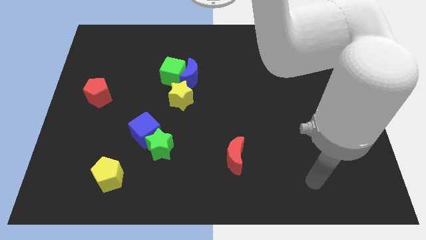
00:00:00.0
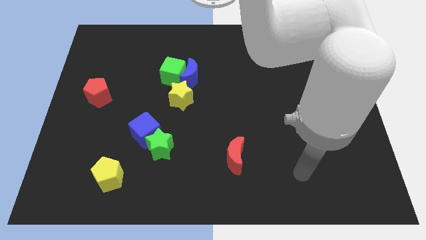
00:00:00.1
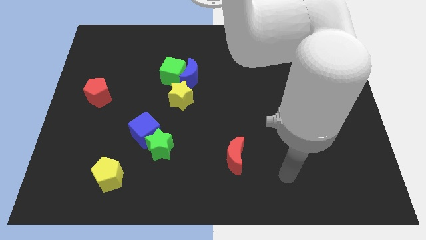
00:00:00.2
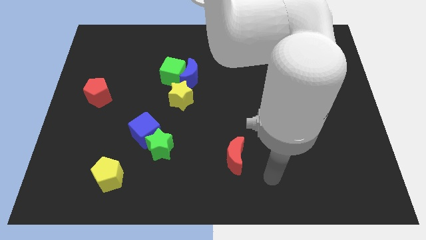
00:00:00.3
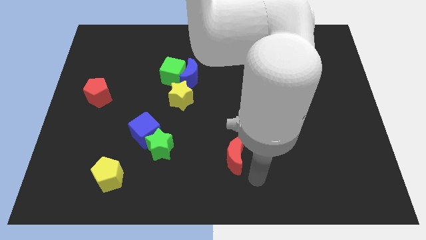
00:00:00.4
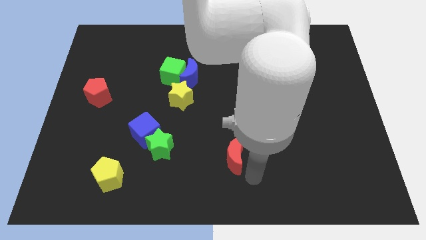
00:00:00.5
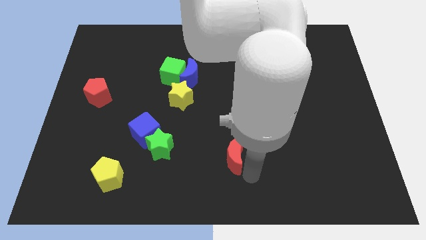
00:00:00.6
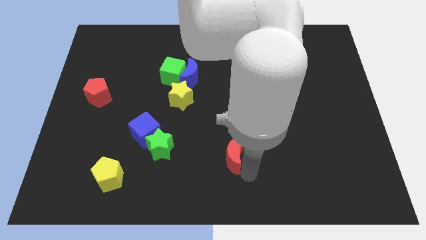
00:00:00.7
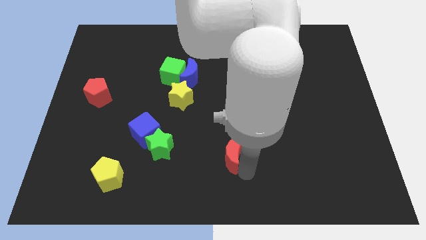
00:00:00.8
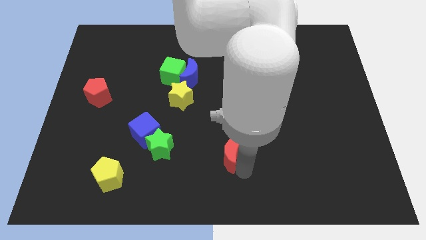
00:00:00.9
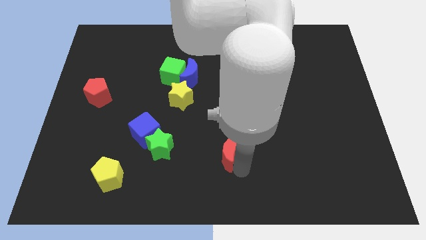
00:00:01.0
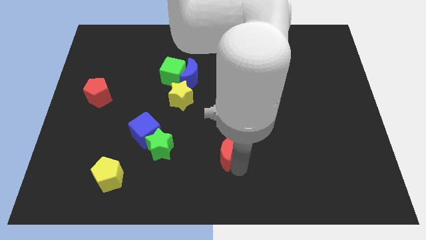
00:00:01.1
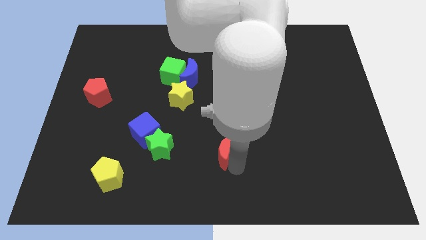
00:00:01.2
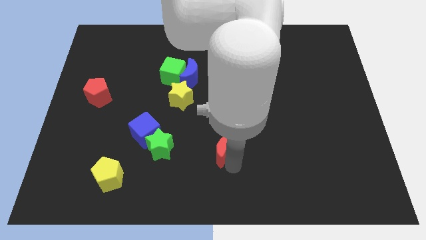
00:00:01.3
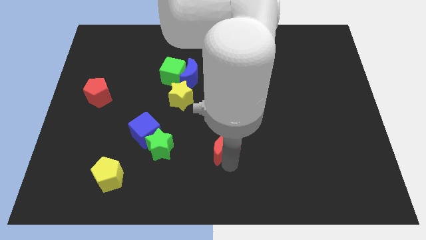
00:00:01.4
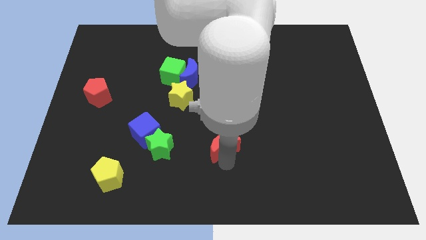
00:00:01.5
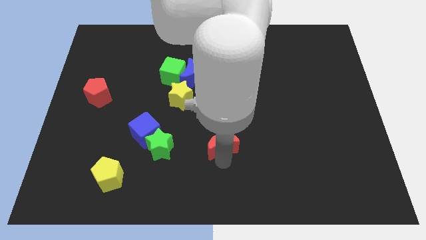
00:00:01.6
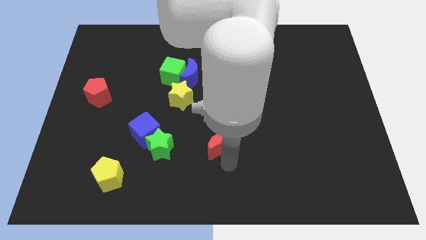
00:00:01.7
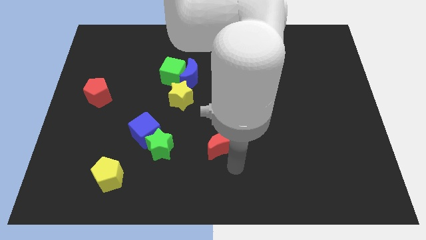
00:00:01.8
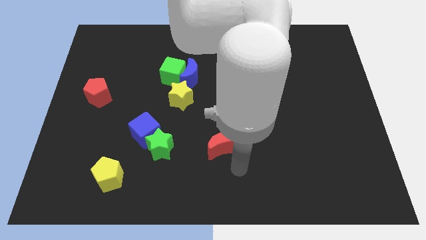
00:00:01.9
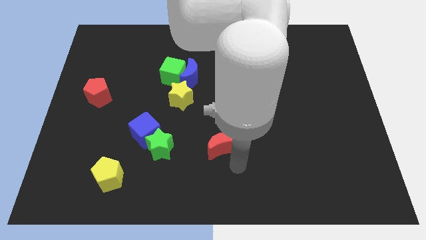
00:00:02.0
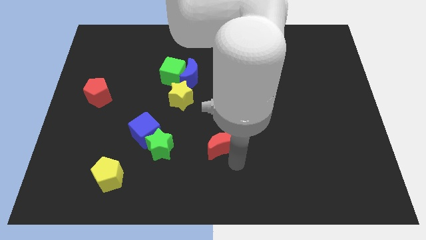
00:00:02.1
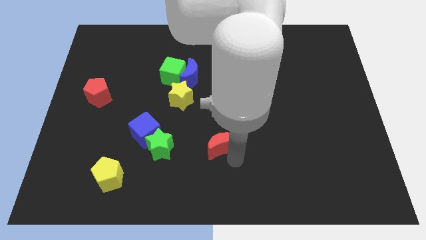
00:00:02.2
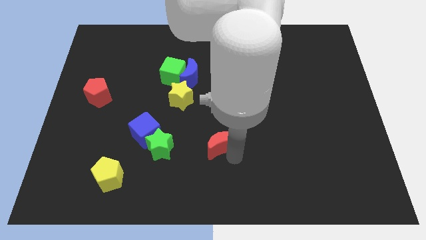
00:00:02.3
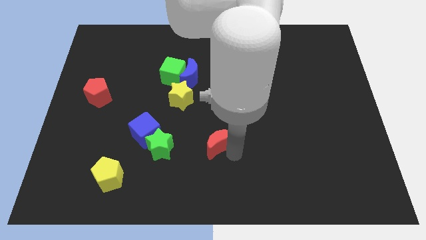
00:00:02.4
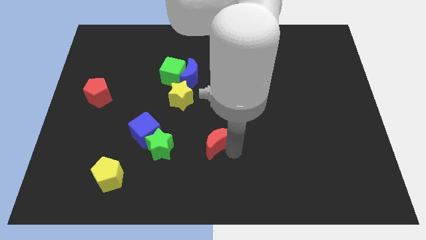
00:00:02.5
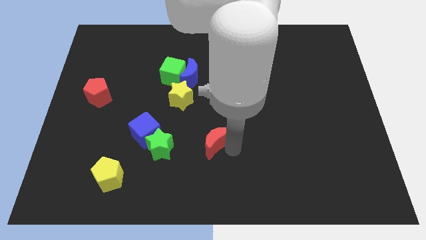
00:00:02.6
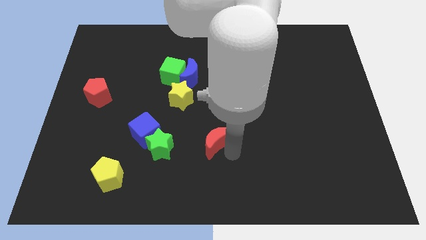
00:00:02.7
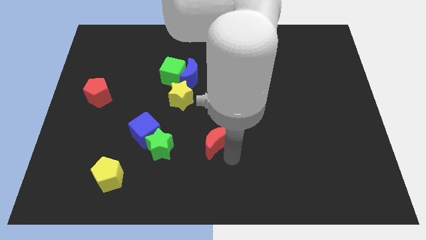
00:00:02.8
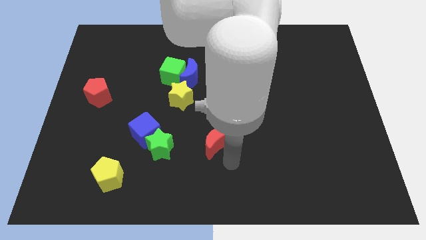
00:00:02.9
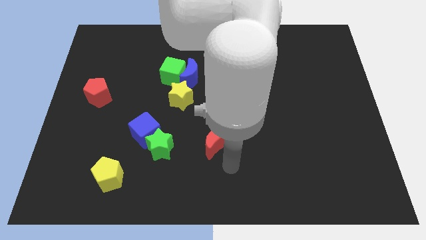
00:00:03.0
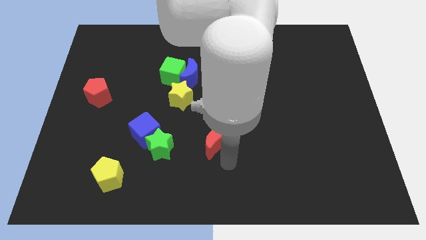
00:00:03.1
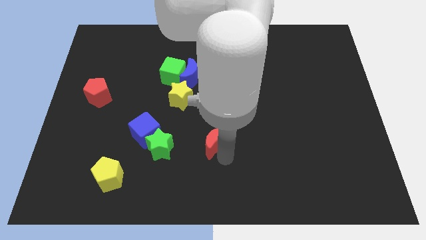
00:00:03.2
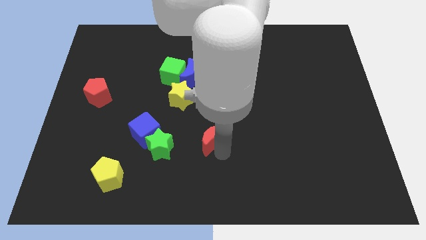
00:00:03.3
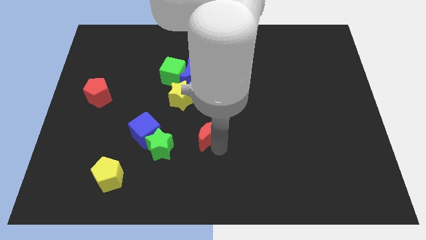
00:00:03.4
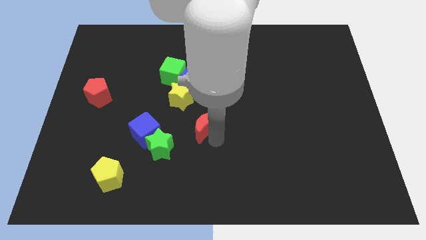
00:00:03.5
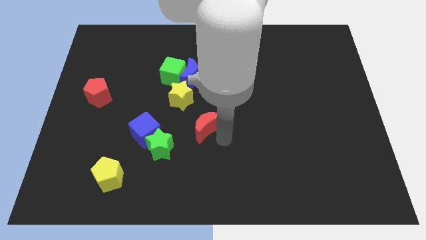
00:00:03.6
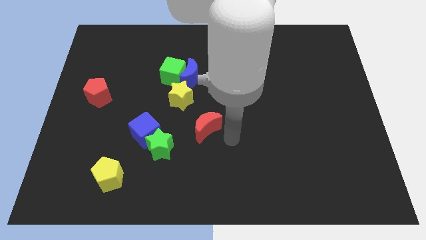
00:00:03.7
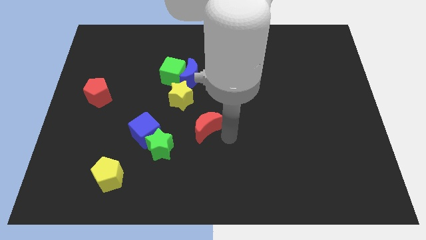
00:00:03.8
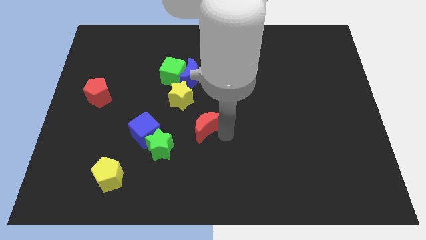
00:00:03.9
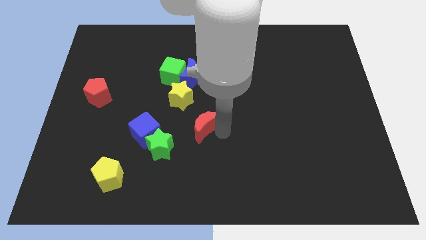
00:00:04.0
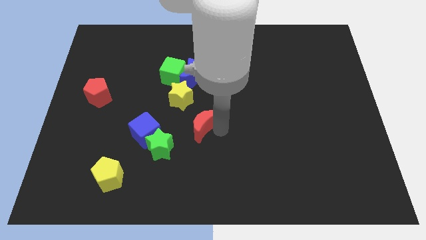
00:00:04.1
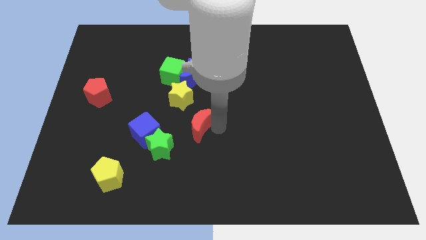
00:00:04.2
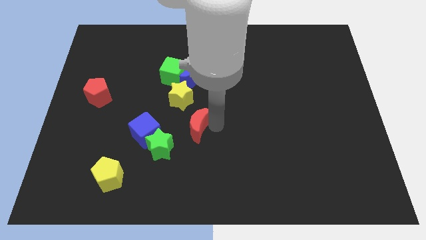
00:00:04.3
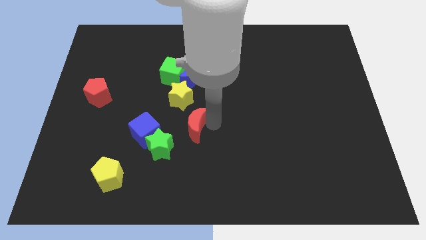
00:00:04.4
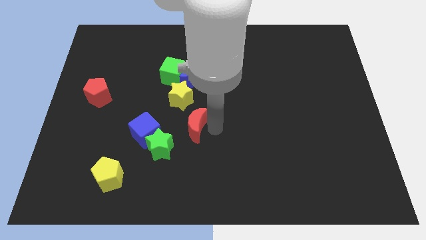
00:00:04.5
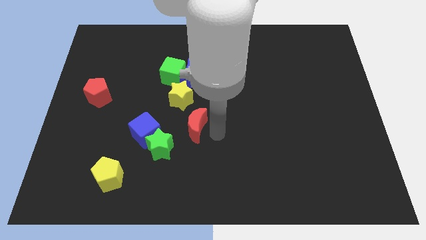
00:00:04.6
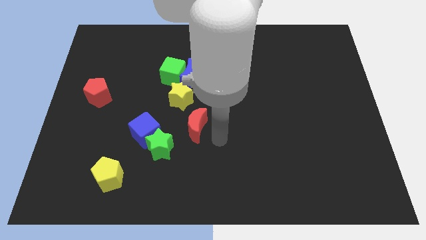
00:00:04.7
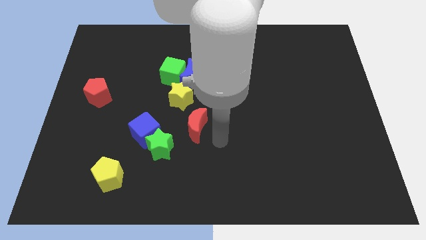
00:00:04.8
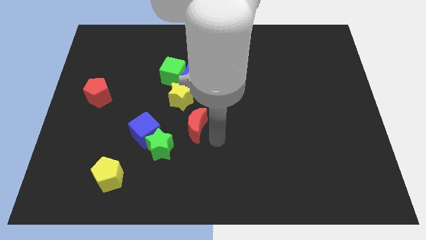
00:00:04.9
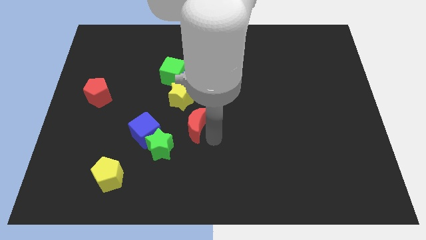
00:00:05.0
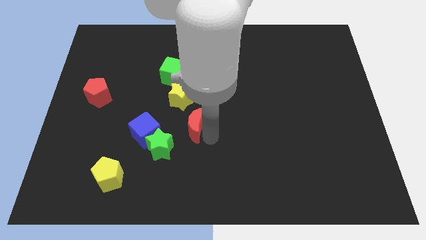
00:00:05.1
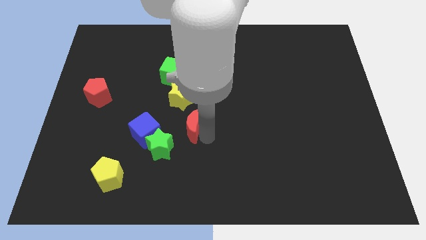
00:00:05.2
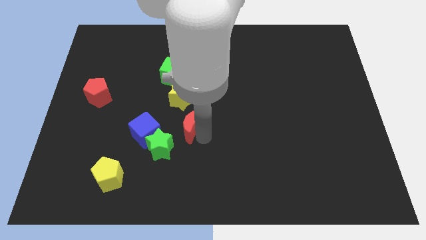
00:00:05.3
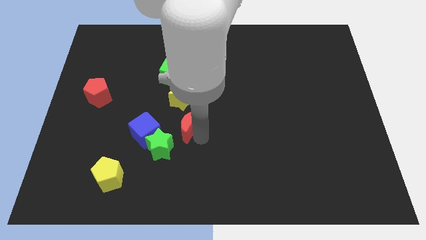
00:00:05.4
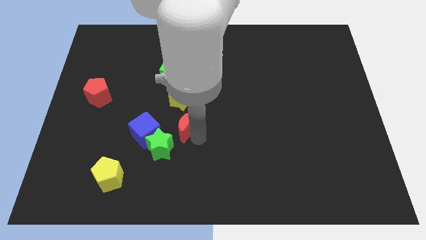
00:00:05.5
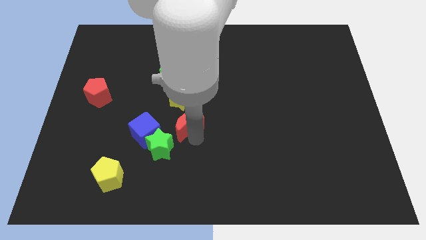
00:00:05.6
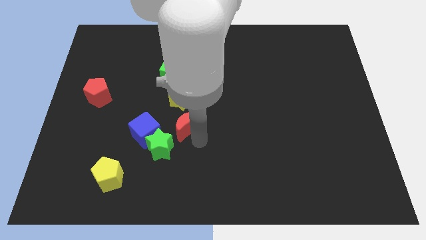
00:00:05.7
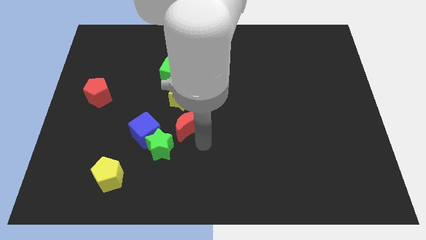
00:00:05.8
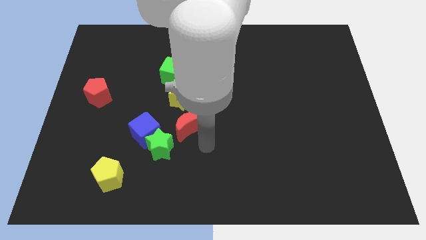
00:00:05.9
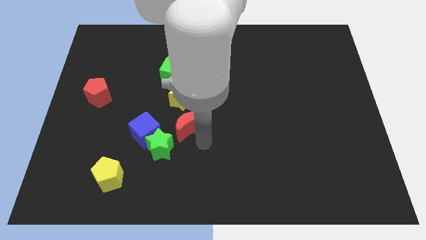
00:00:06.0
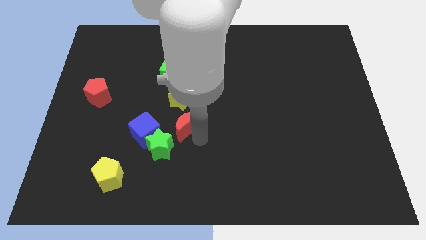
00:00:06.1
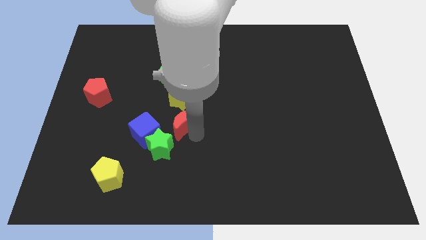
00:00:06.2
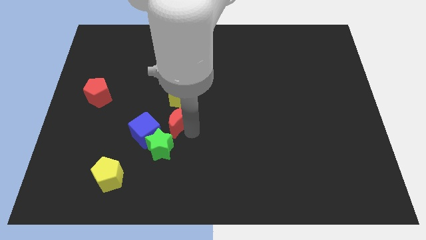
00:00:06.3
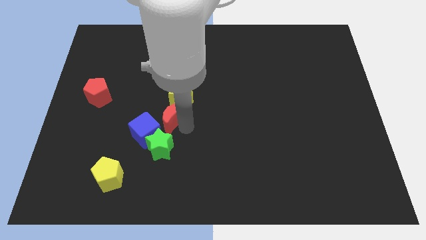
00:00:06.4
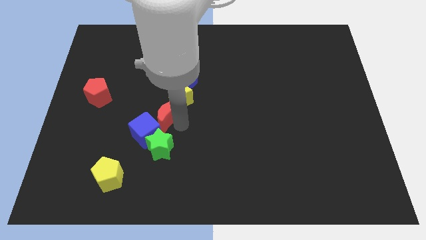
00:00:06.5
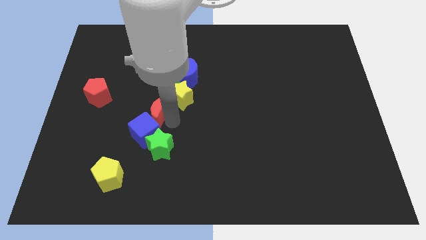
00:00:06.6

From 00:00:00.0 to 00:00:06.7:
push the red moon up and to the left diagonally

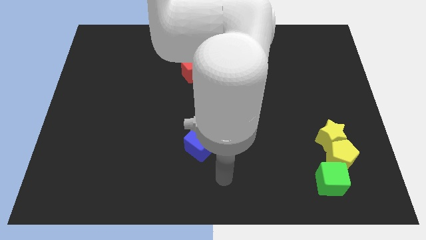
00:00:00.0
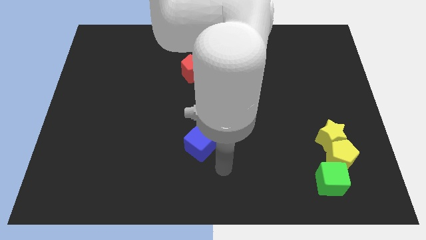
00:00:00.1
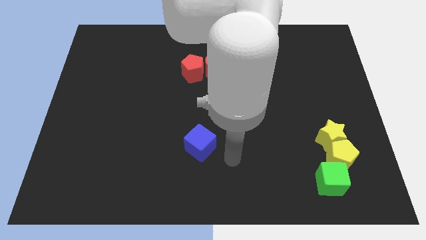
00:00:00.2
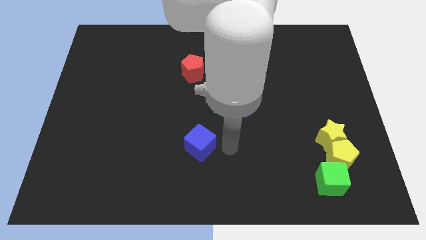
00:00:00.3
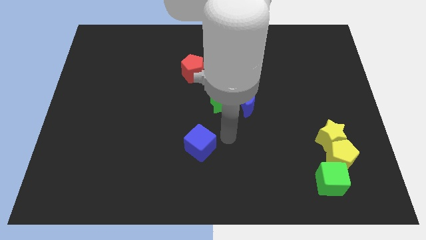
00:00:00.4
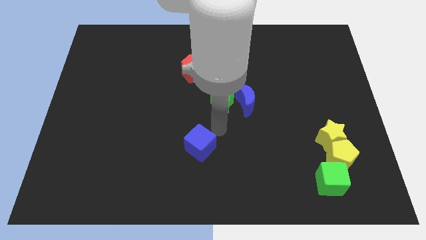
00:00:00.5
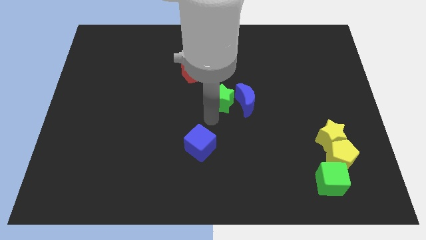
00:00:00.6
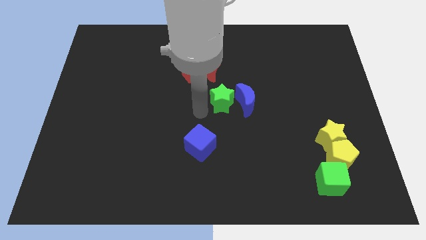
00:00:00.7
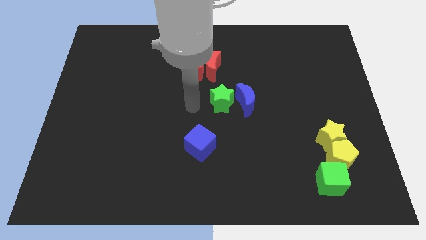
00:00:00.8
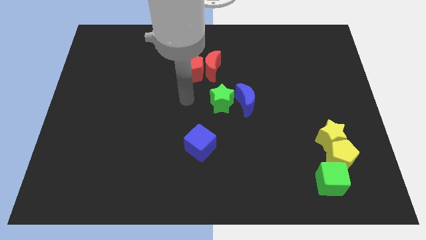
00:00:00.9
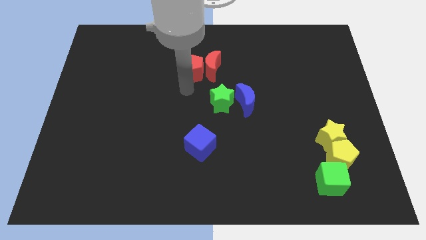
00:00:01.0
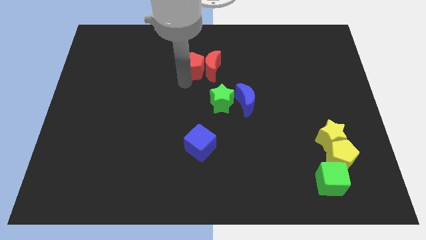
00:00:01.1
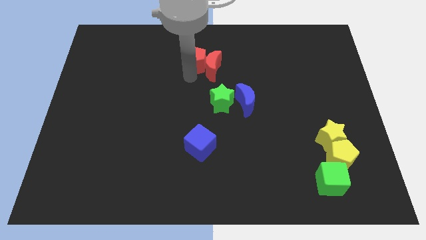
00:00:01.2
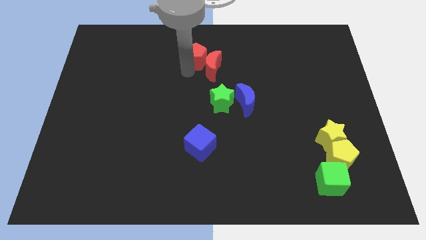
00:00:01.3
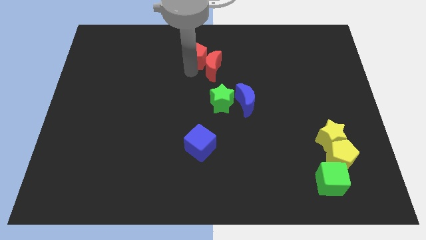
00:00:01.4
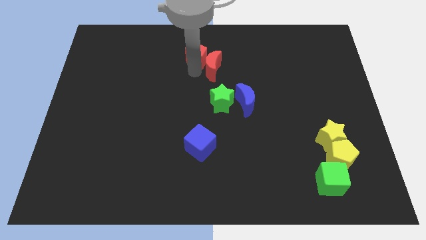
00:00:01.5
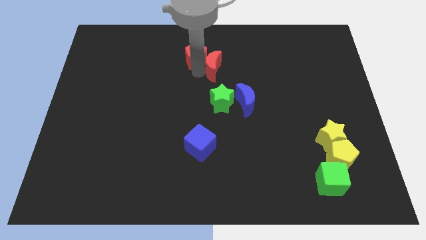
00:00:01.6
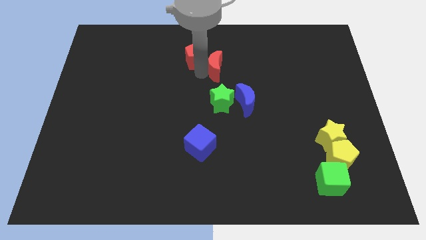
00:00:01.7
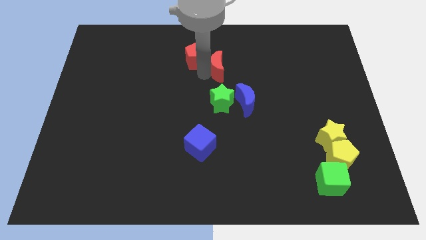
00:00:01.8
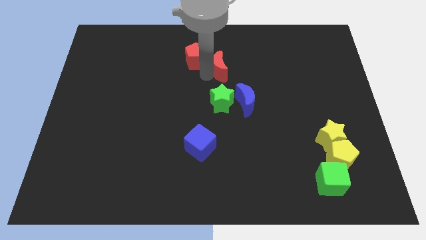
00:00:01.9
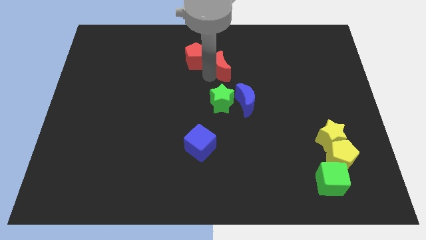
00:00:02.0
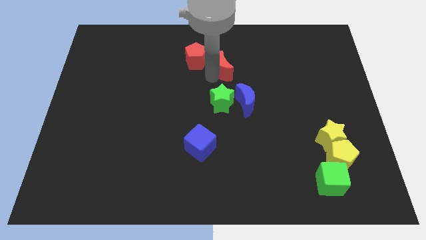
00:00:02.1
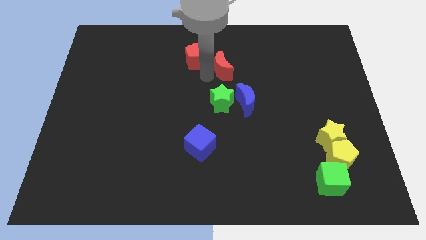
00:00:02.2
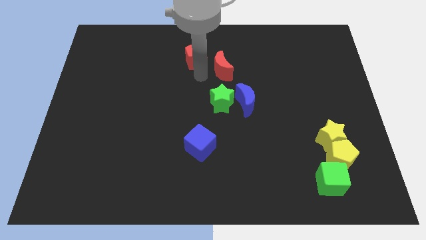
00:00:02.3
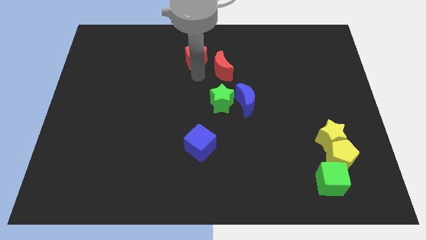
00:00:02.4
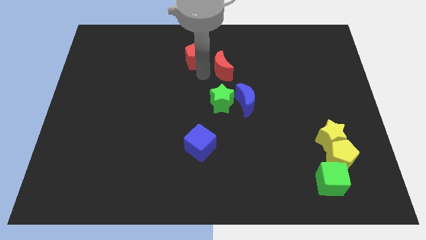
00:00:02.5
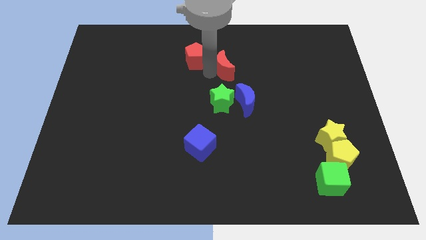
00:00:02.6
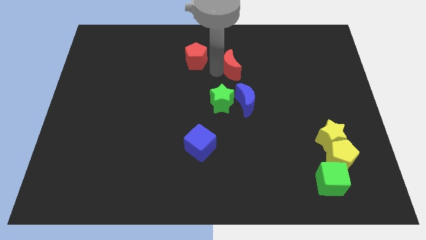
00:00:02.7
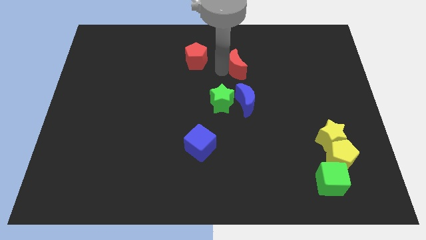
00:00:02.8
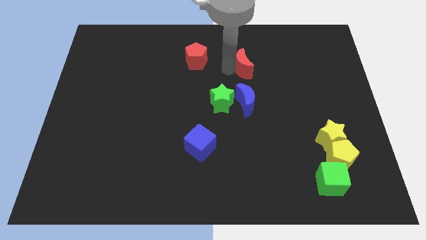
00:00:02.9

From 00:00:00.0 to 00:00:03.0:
slide the red moon right slightly
